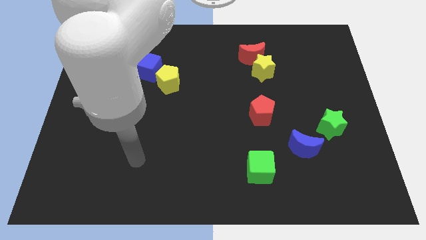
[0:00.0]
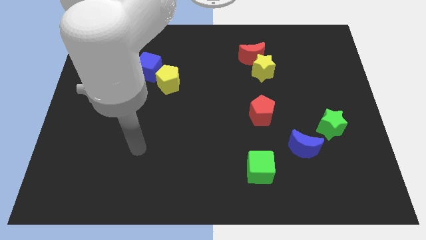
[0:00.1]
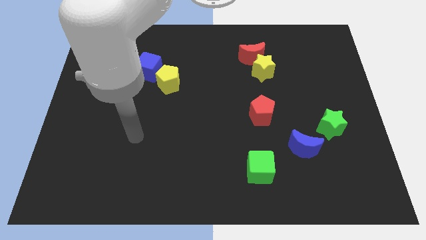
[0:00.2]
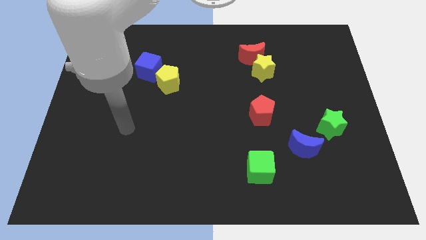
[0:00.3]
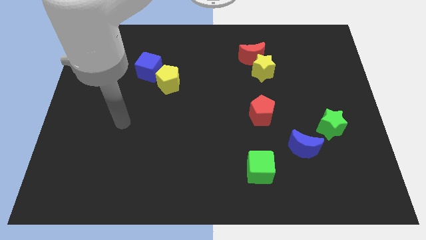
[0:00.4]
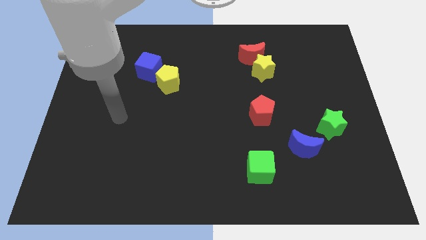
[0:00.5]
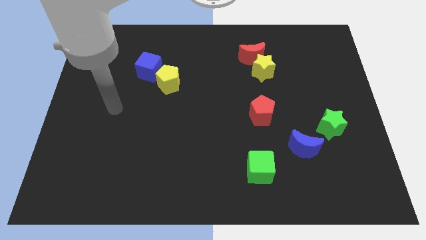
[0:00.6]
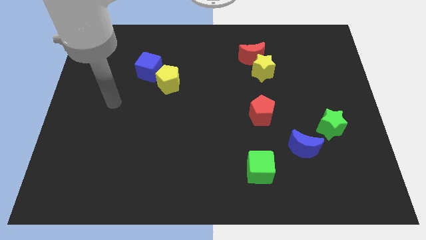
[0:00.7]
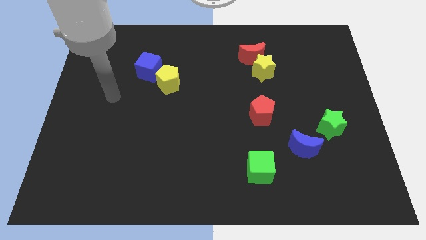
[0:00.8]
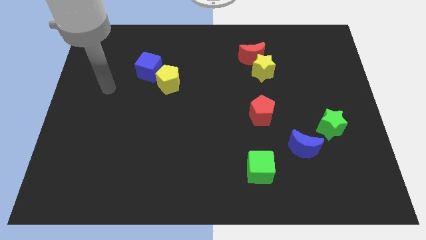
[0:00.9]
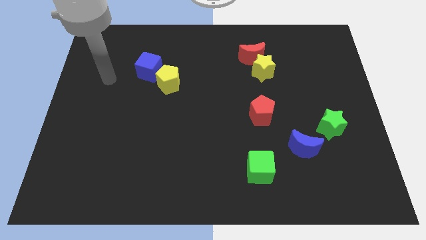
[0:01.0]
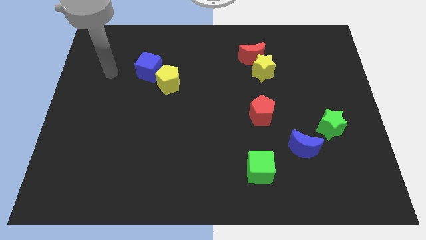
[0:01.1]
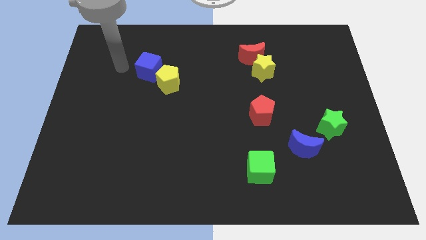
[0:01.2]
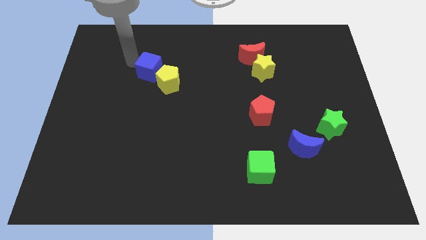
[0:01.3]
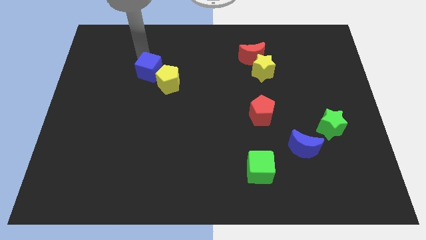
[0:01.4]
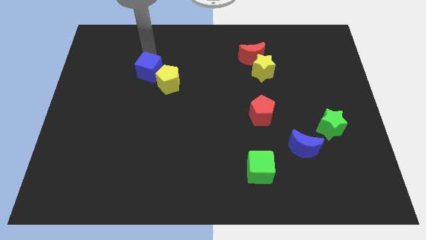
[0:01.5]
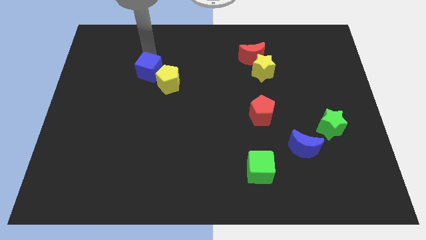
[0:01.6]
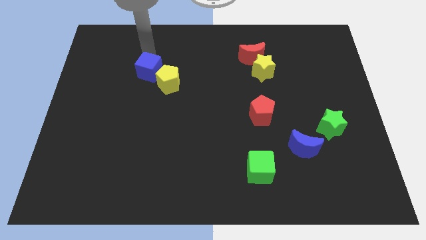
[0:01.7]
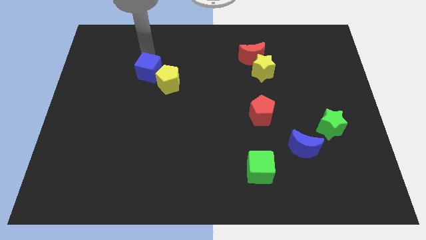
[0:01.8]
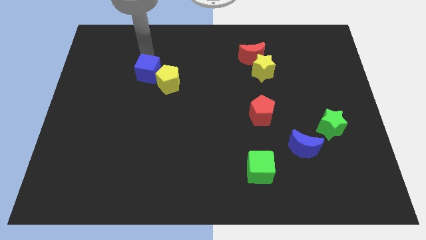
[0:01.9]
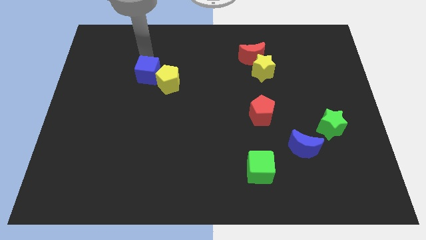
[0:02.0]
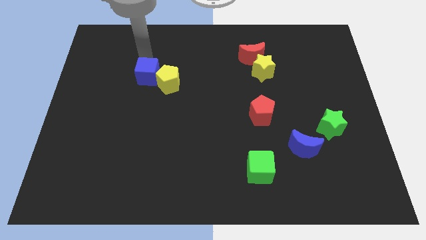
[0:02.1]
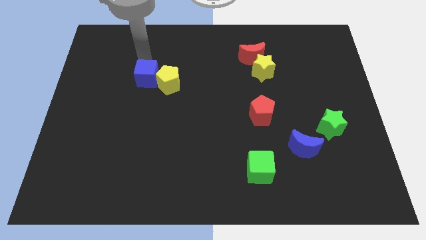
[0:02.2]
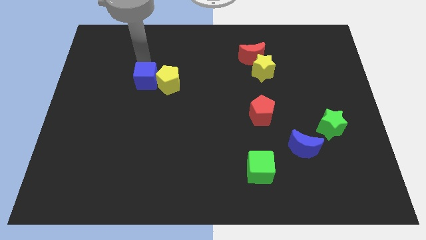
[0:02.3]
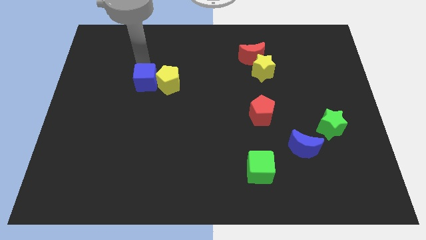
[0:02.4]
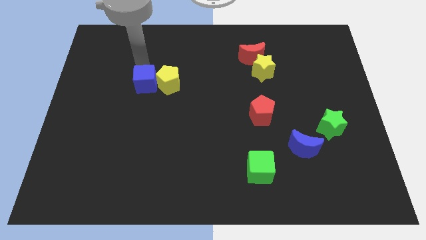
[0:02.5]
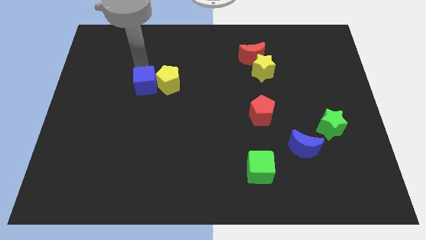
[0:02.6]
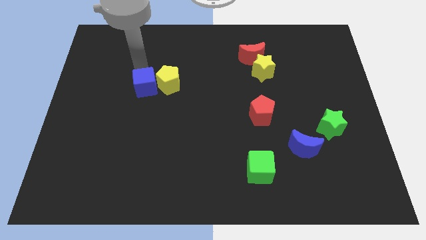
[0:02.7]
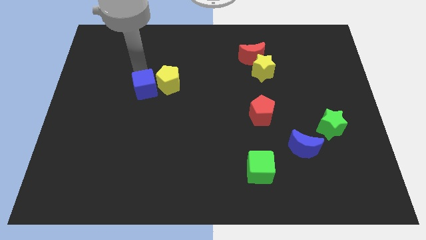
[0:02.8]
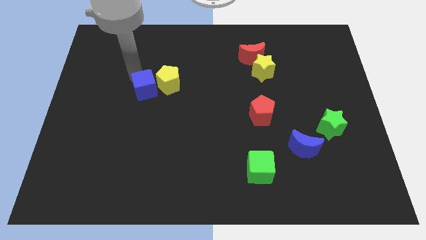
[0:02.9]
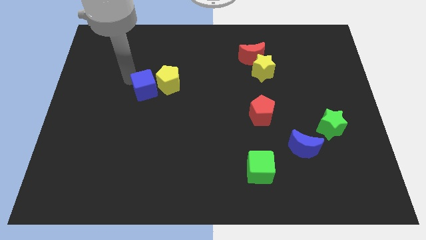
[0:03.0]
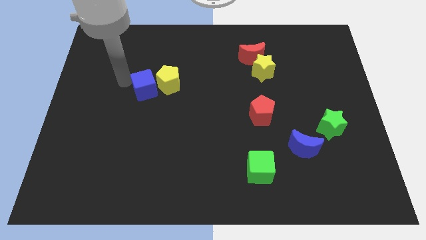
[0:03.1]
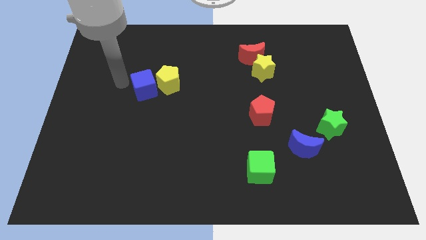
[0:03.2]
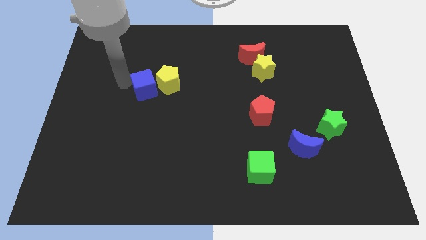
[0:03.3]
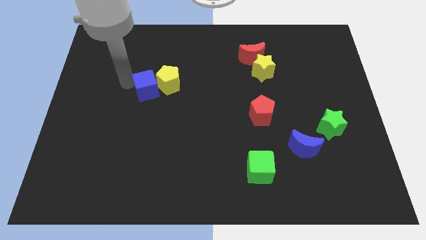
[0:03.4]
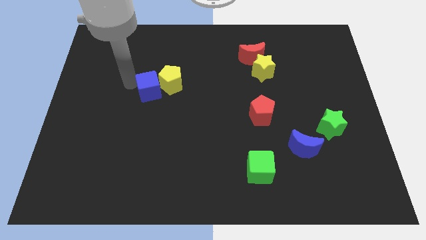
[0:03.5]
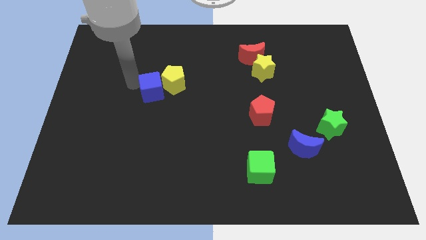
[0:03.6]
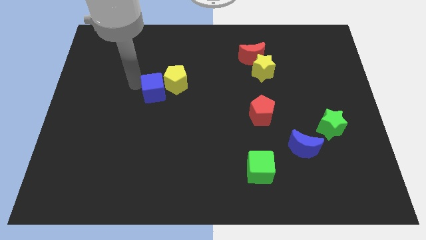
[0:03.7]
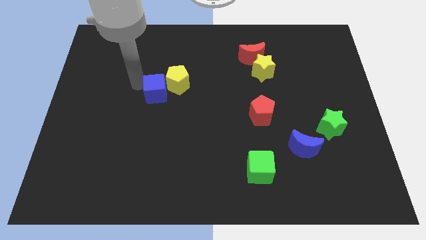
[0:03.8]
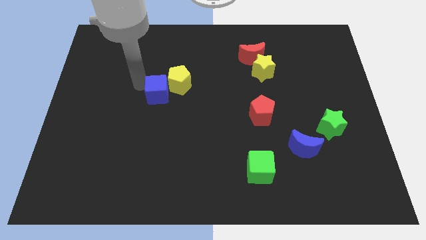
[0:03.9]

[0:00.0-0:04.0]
slightly slide the blue cube diagonally downwards and right

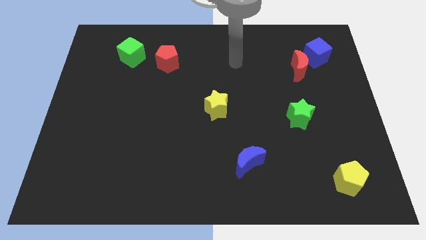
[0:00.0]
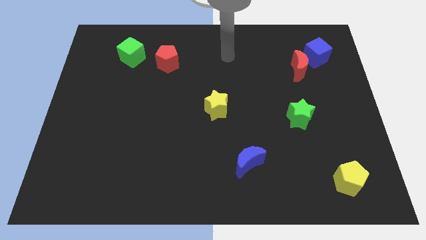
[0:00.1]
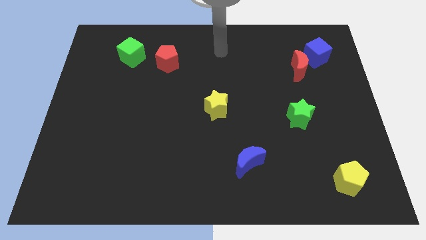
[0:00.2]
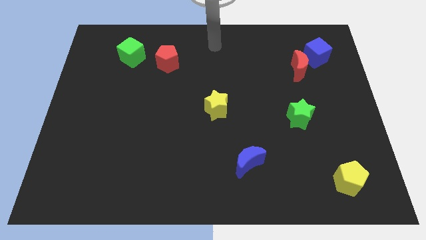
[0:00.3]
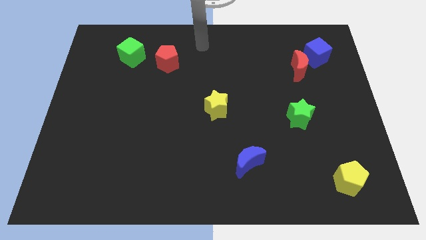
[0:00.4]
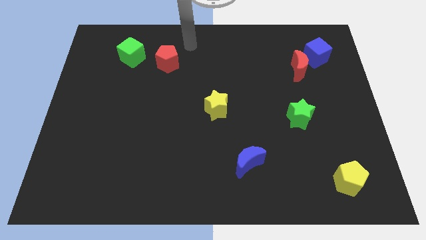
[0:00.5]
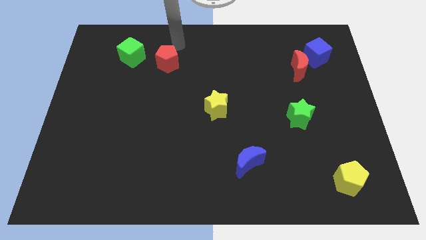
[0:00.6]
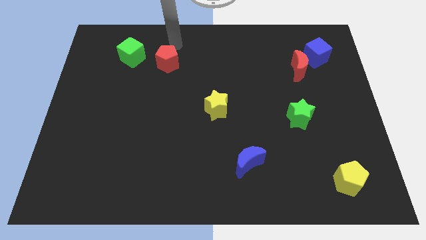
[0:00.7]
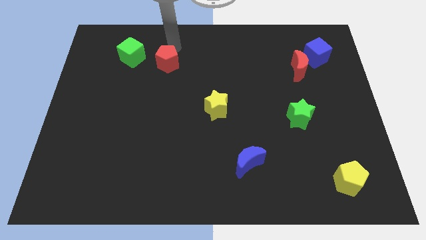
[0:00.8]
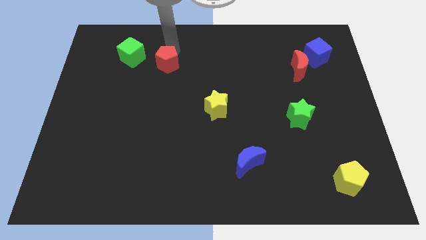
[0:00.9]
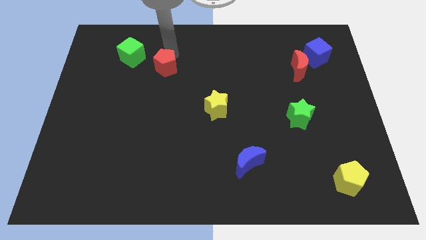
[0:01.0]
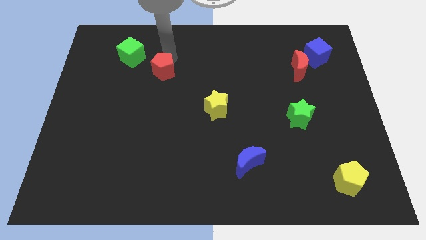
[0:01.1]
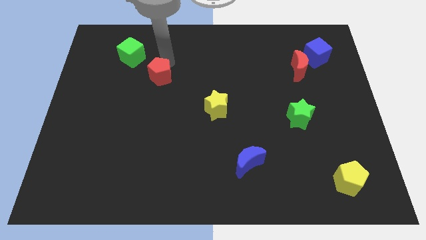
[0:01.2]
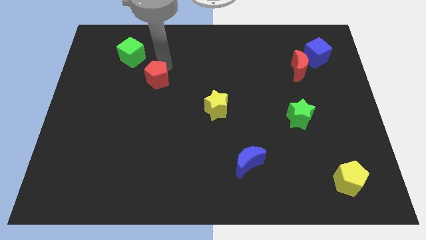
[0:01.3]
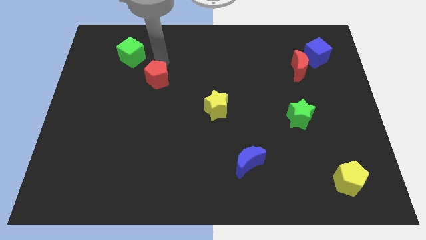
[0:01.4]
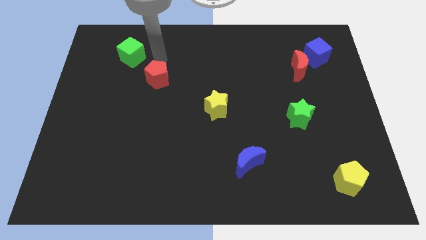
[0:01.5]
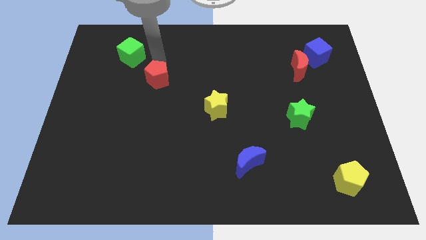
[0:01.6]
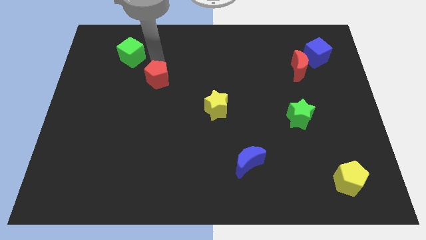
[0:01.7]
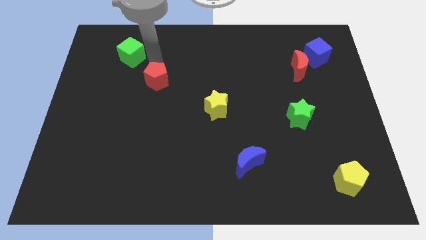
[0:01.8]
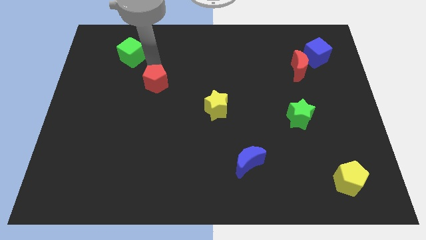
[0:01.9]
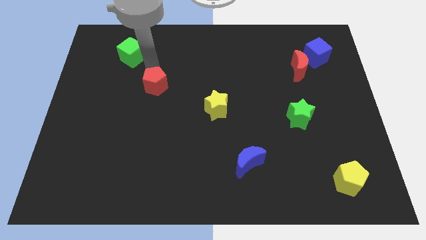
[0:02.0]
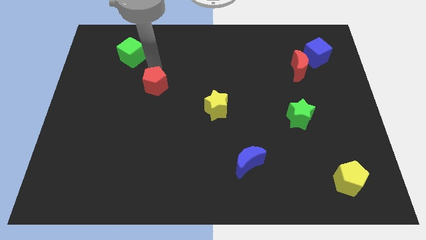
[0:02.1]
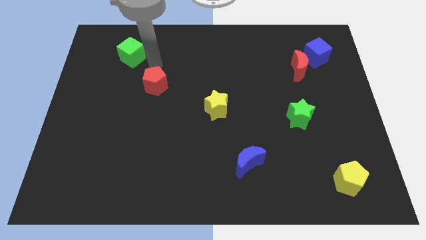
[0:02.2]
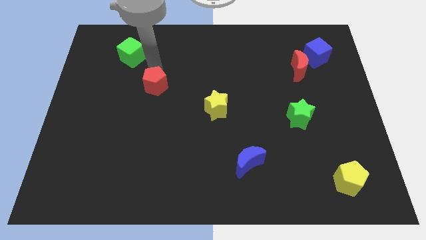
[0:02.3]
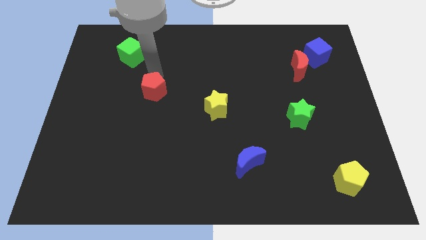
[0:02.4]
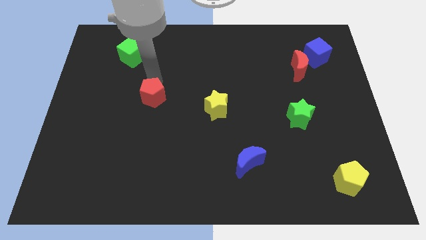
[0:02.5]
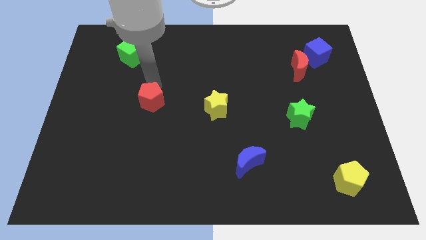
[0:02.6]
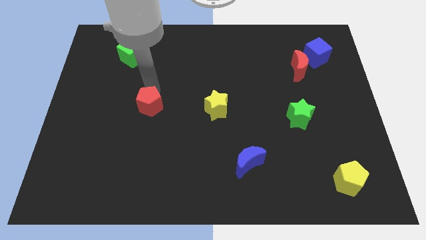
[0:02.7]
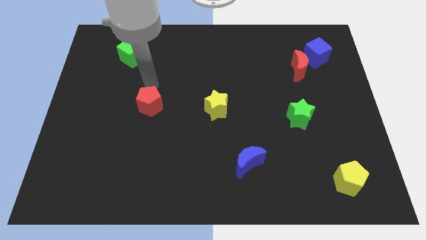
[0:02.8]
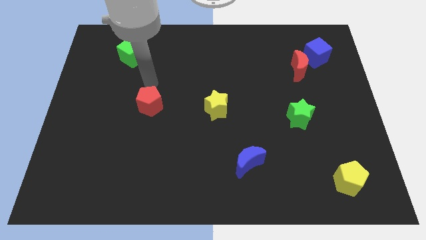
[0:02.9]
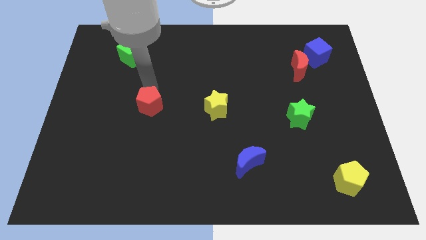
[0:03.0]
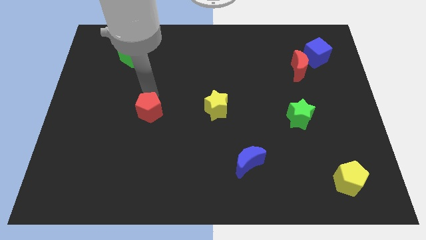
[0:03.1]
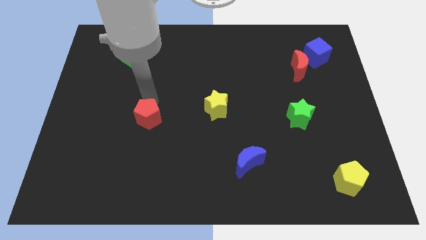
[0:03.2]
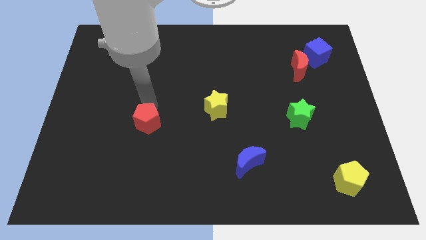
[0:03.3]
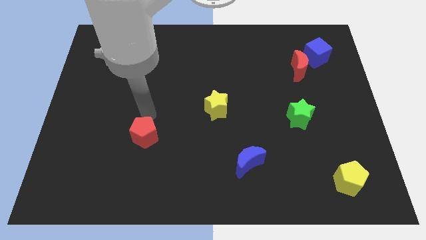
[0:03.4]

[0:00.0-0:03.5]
move the red pentagon downwards

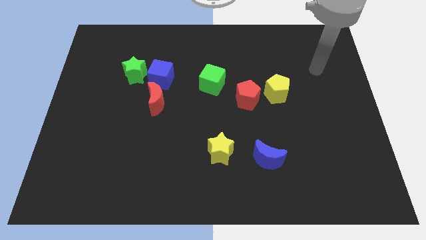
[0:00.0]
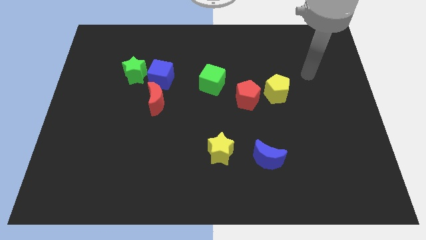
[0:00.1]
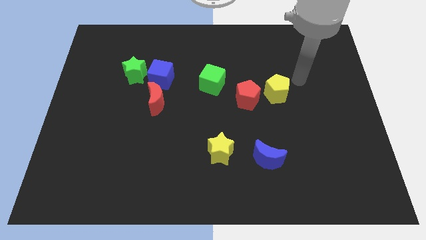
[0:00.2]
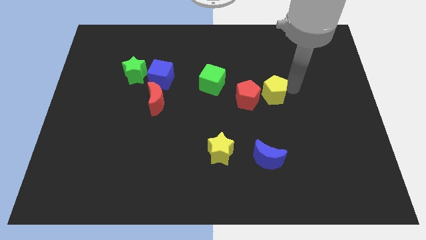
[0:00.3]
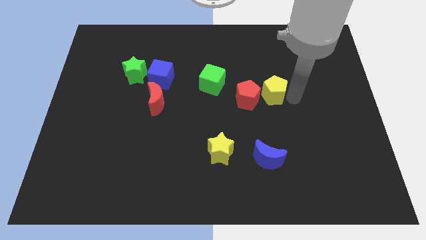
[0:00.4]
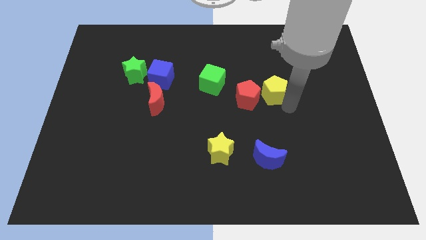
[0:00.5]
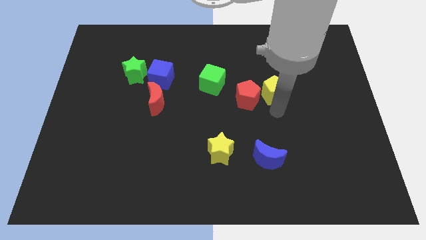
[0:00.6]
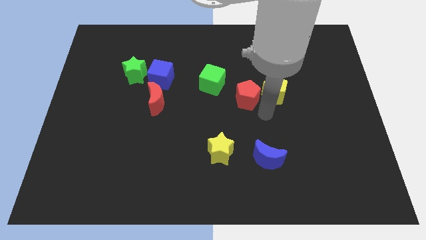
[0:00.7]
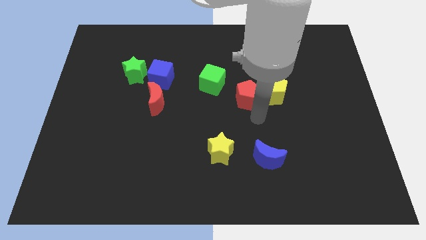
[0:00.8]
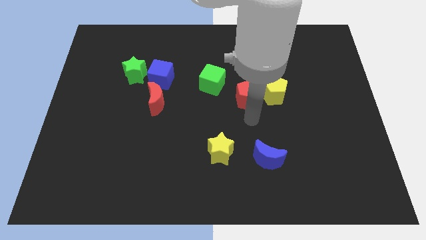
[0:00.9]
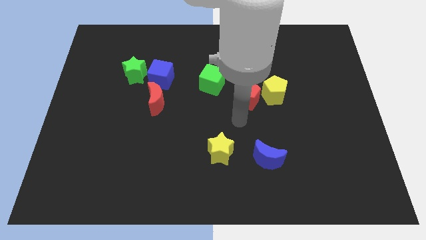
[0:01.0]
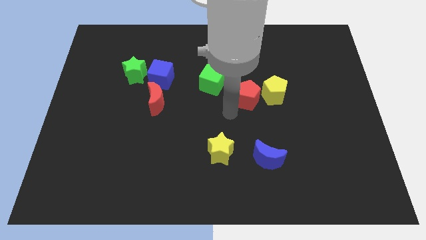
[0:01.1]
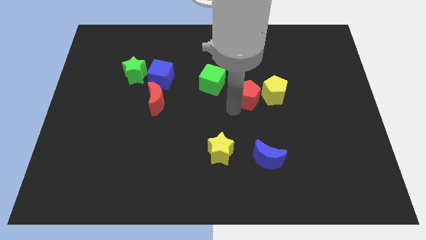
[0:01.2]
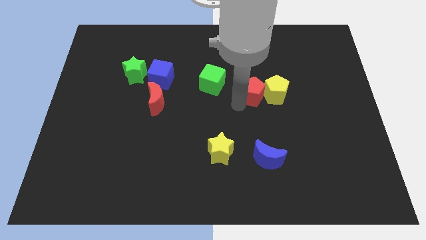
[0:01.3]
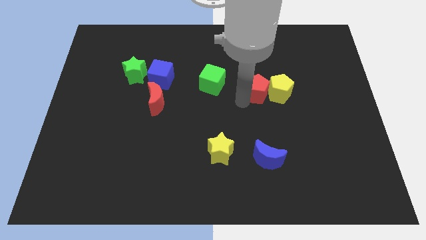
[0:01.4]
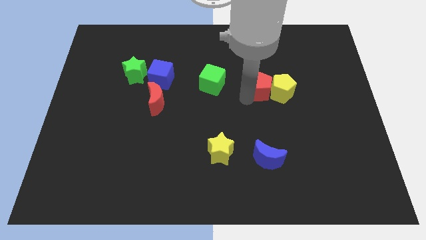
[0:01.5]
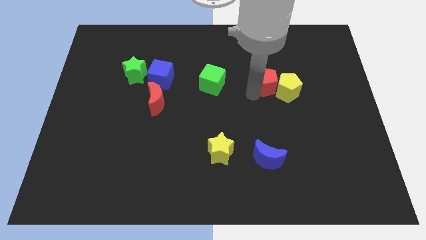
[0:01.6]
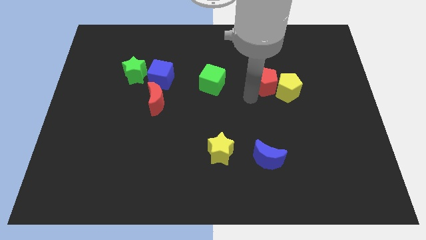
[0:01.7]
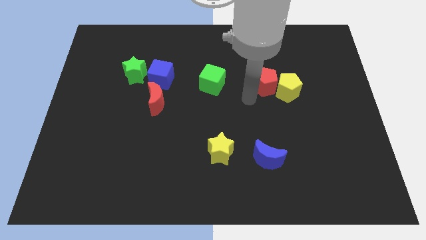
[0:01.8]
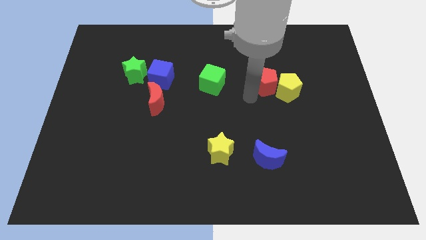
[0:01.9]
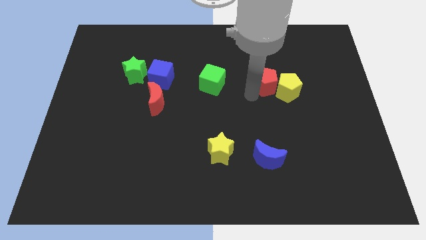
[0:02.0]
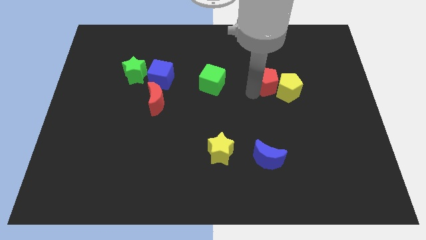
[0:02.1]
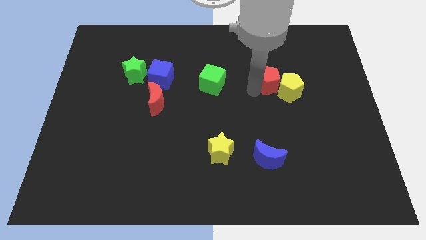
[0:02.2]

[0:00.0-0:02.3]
move the red pentagon diagonally upwards and to the right a little
